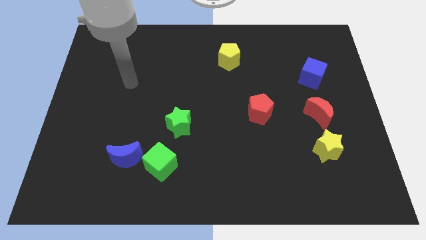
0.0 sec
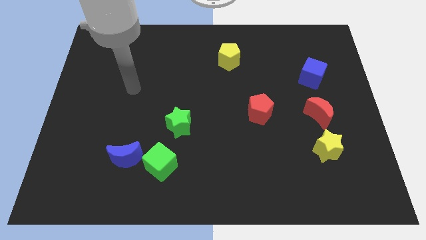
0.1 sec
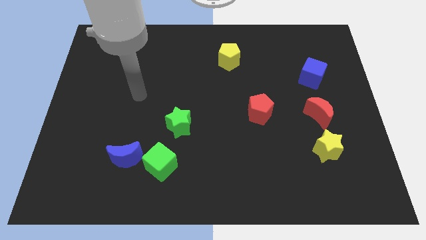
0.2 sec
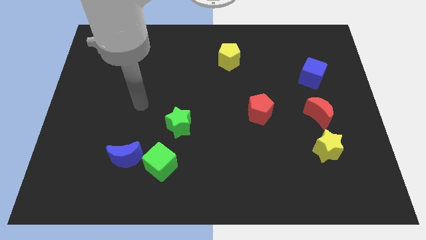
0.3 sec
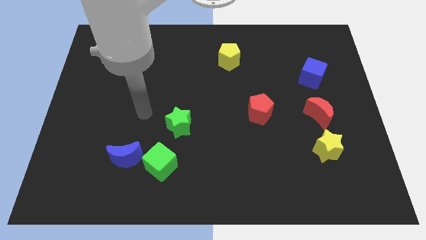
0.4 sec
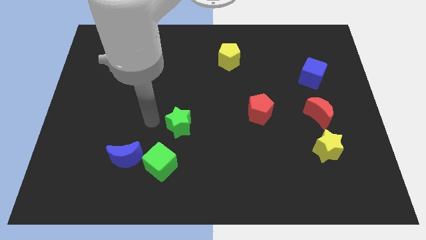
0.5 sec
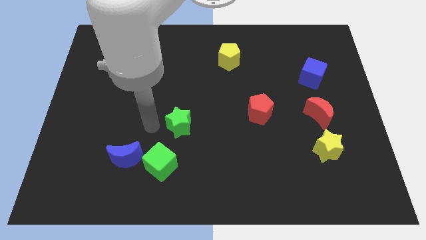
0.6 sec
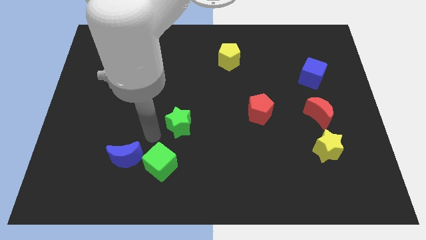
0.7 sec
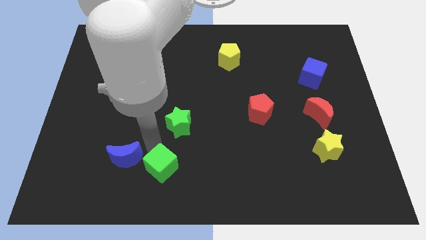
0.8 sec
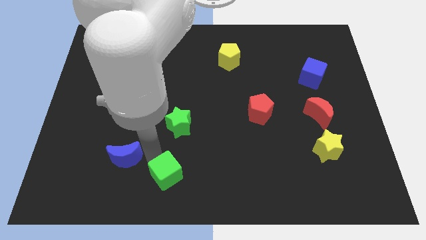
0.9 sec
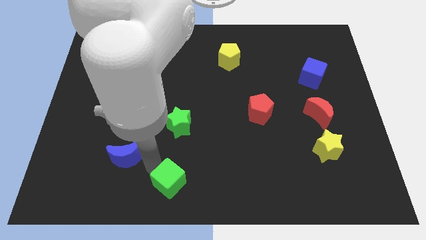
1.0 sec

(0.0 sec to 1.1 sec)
move the blue moon away from the green cube

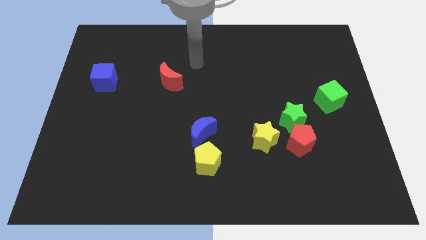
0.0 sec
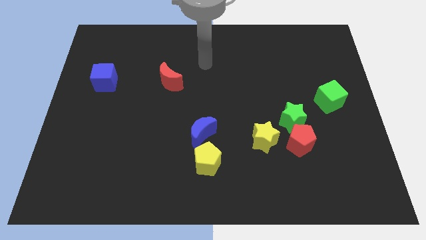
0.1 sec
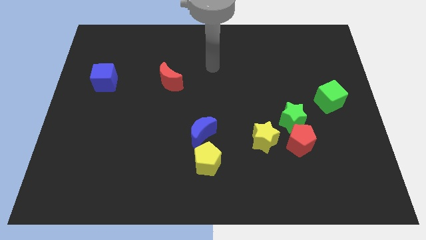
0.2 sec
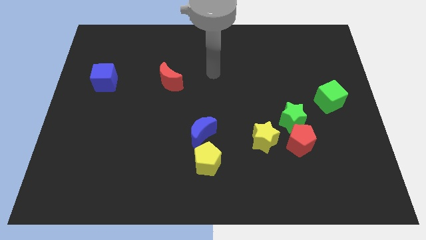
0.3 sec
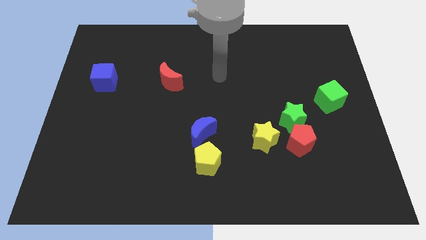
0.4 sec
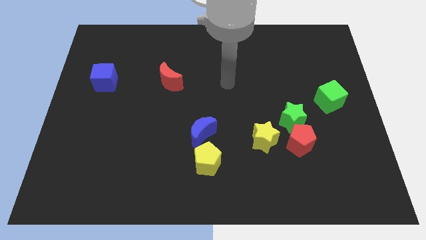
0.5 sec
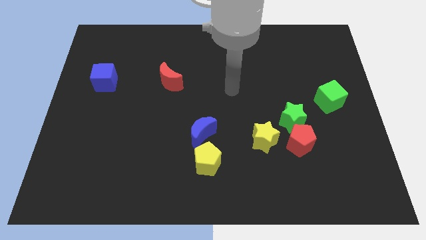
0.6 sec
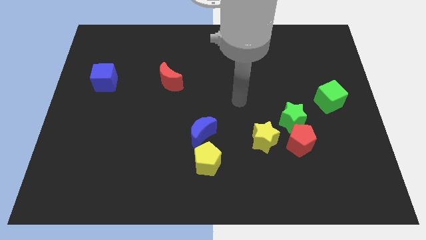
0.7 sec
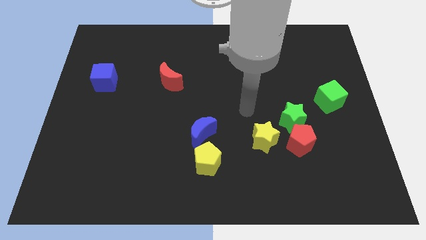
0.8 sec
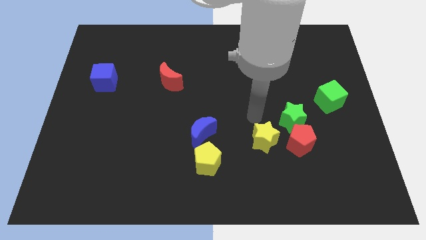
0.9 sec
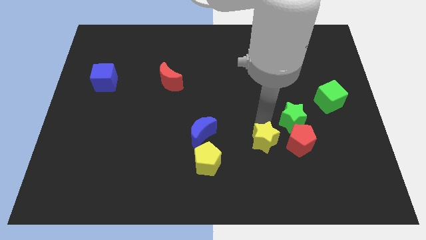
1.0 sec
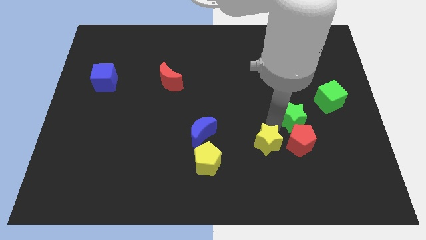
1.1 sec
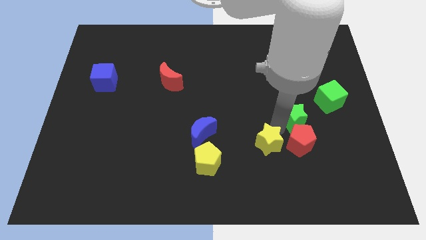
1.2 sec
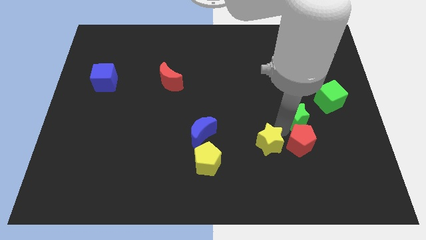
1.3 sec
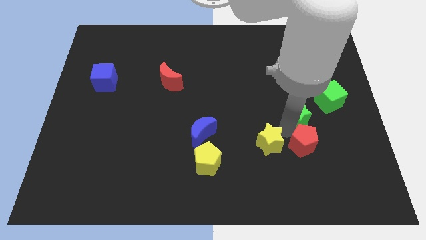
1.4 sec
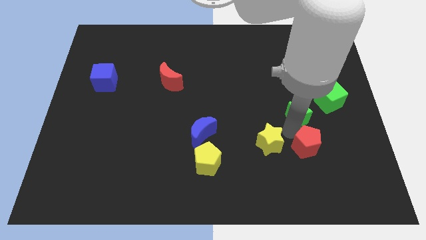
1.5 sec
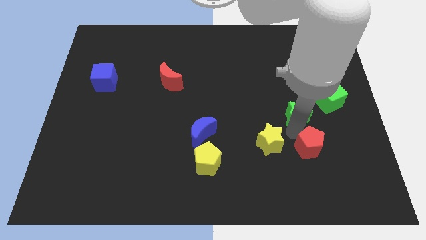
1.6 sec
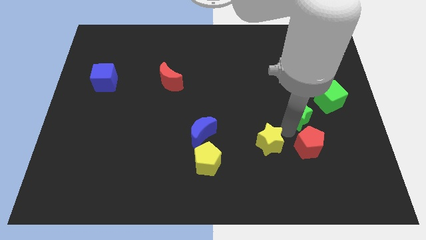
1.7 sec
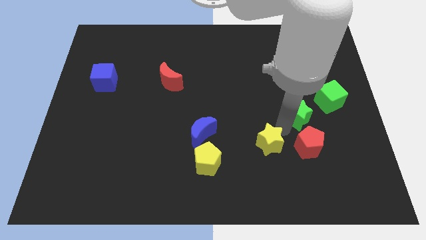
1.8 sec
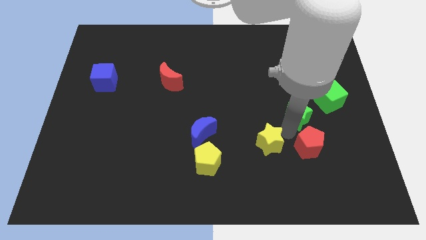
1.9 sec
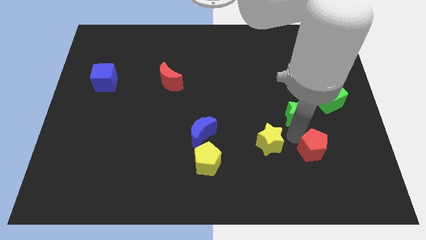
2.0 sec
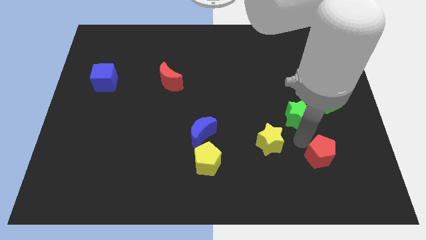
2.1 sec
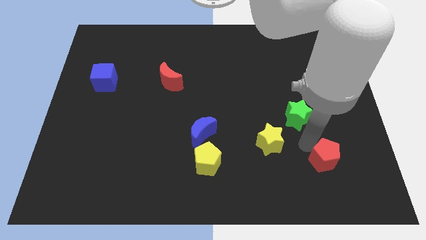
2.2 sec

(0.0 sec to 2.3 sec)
separate the red pentagon from the green star and yellow star

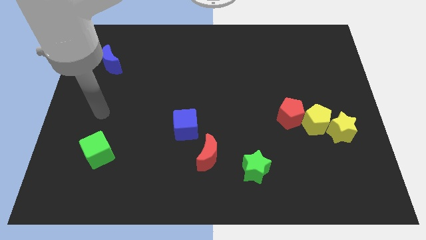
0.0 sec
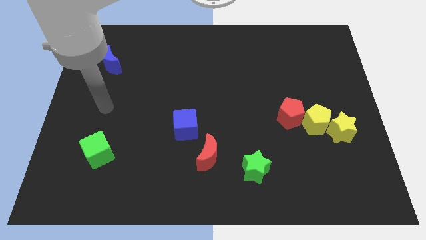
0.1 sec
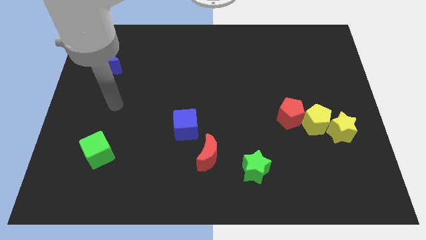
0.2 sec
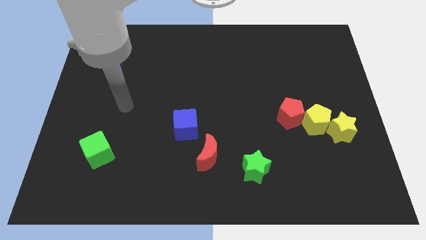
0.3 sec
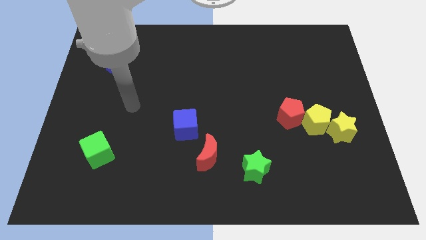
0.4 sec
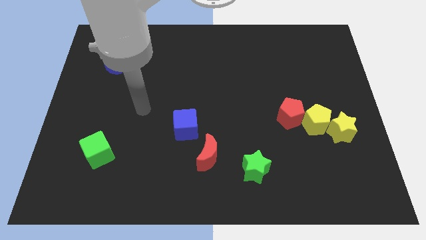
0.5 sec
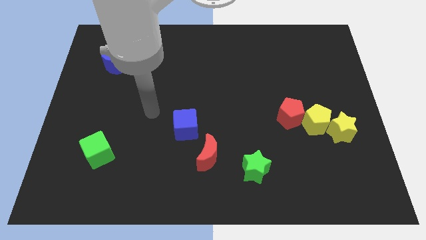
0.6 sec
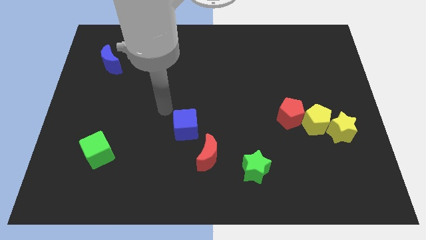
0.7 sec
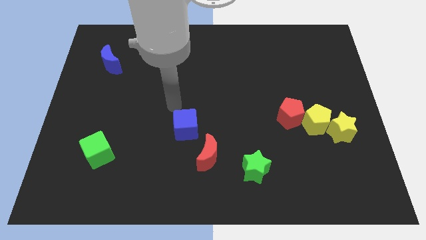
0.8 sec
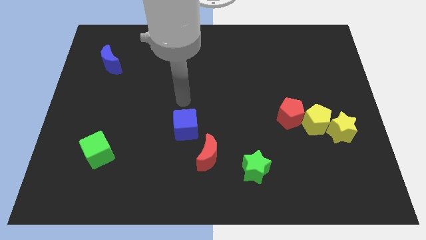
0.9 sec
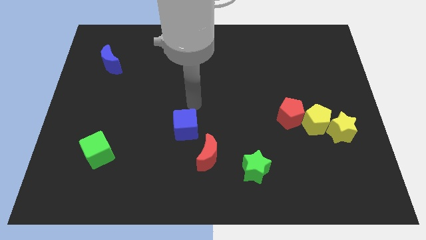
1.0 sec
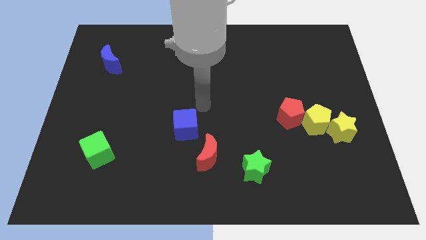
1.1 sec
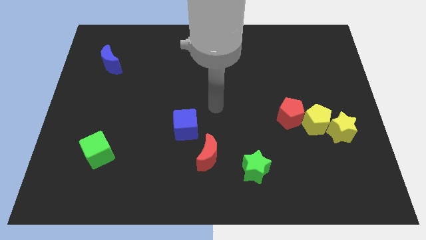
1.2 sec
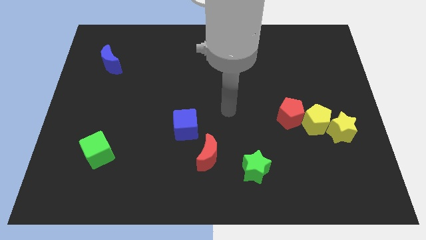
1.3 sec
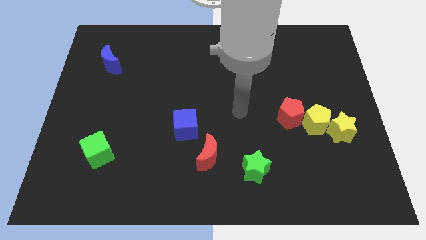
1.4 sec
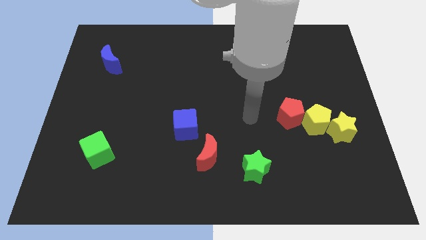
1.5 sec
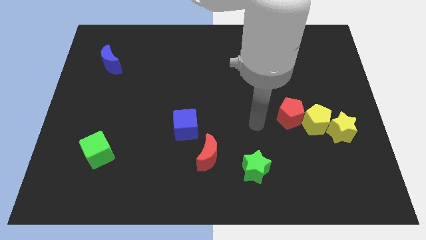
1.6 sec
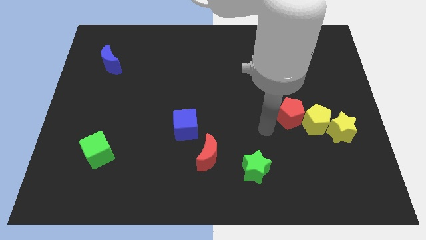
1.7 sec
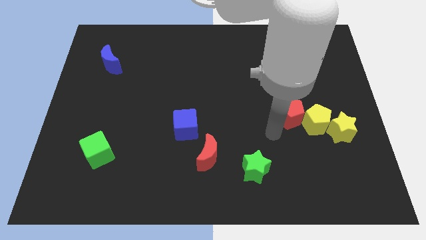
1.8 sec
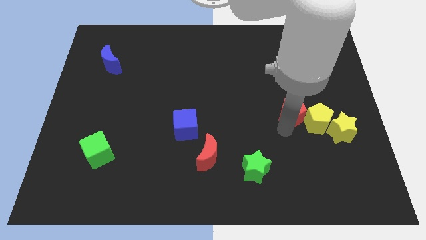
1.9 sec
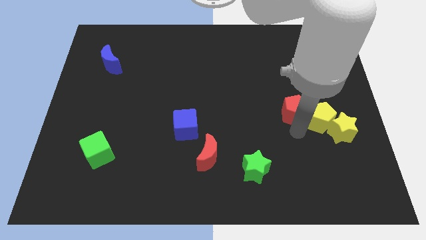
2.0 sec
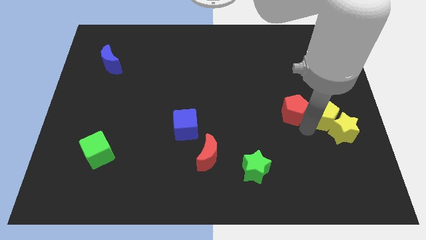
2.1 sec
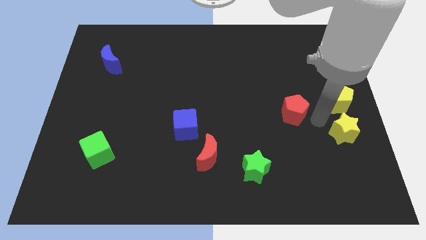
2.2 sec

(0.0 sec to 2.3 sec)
pull the red pentagon apart from the yellow pentagon

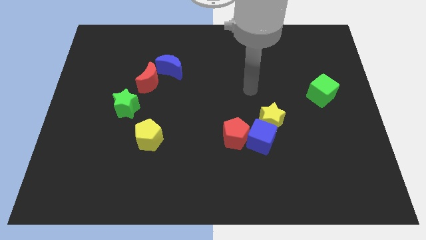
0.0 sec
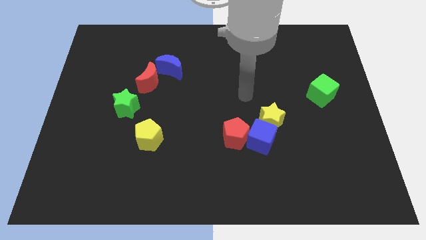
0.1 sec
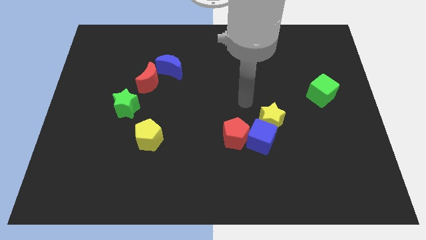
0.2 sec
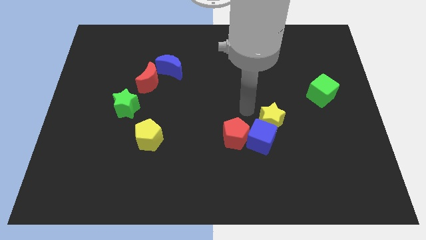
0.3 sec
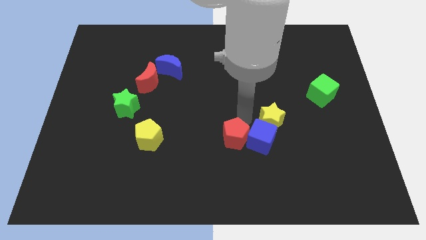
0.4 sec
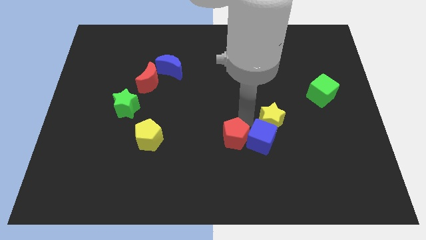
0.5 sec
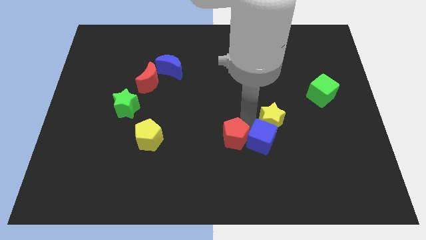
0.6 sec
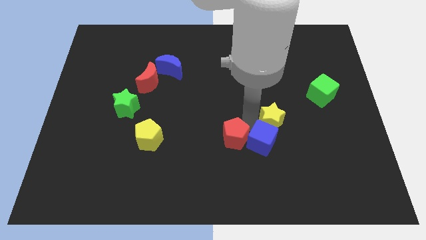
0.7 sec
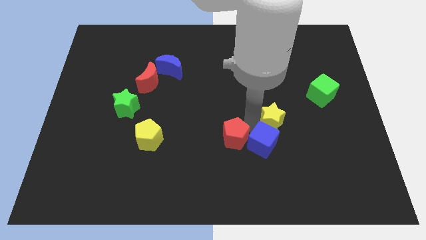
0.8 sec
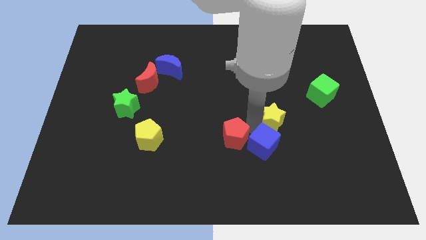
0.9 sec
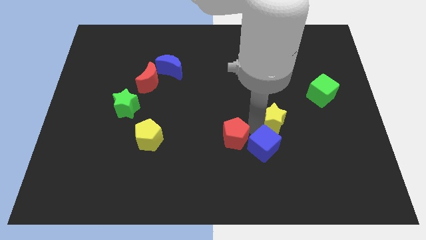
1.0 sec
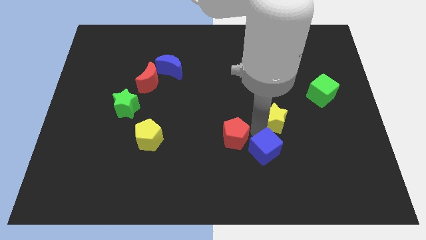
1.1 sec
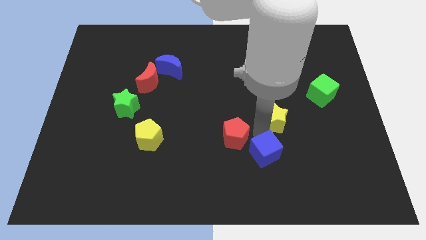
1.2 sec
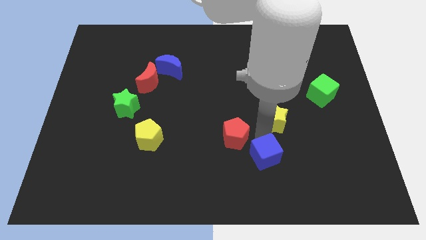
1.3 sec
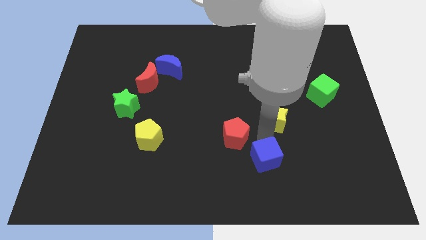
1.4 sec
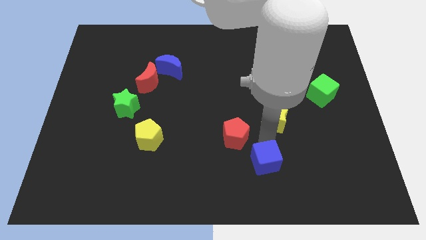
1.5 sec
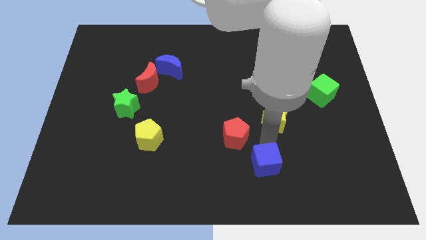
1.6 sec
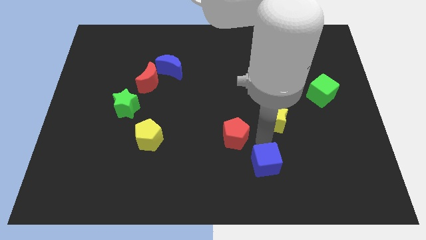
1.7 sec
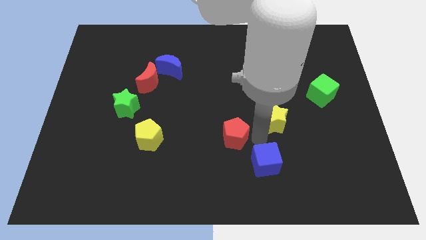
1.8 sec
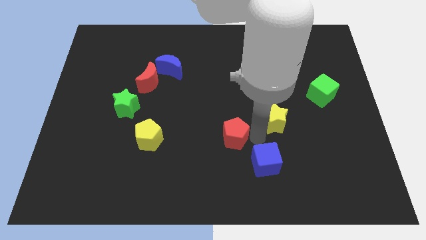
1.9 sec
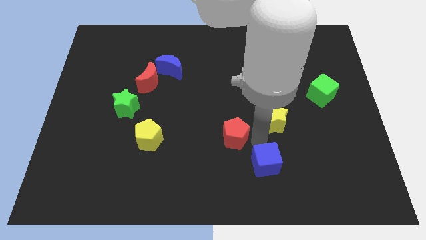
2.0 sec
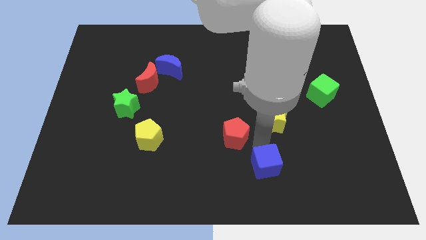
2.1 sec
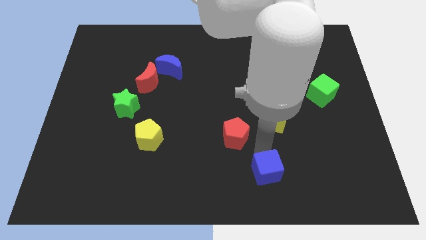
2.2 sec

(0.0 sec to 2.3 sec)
move the blue cube away from the yellow star and red pentagon

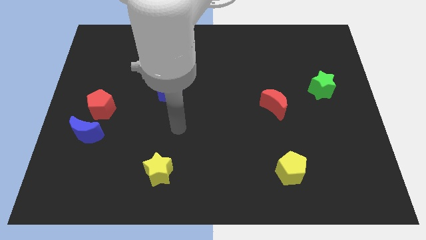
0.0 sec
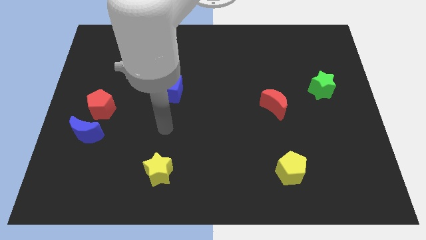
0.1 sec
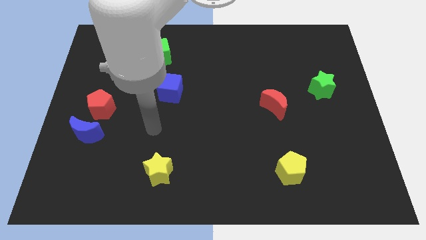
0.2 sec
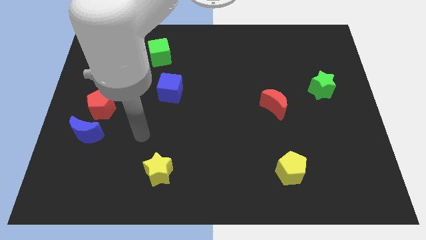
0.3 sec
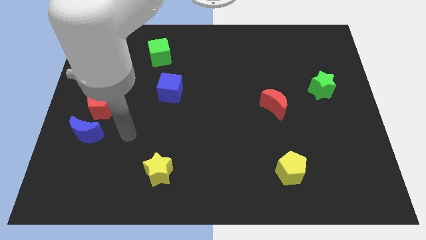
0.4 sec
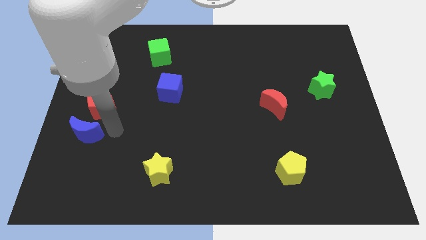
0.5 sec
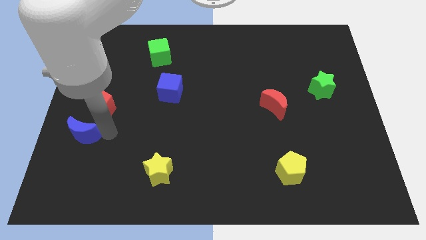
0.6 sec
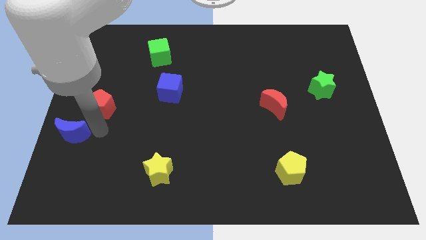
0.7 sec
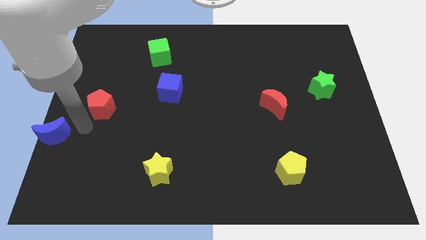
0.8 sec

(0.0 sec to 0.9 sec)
move the red pentagon away from the blue moon

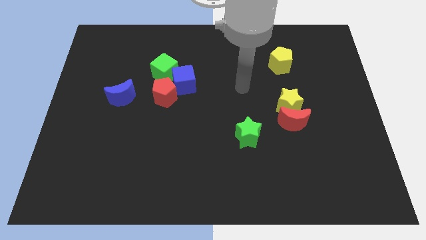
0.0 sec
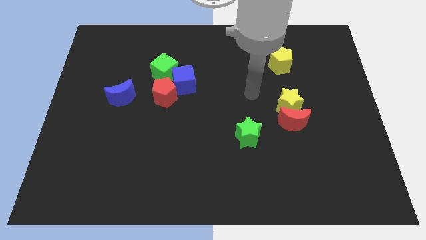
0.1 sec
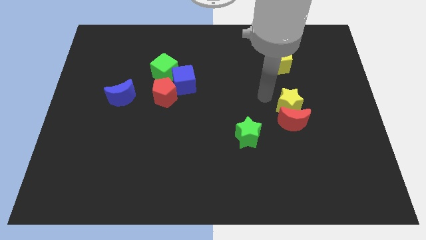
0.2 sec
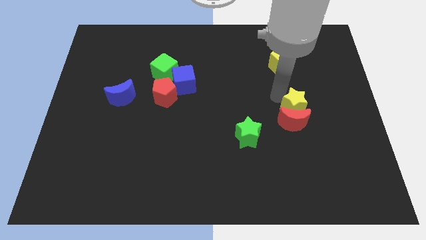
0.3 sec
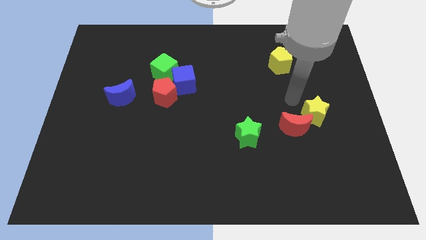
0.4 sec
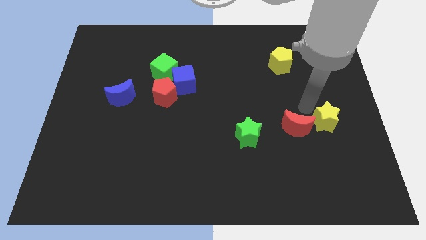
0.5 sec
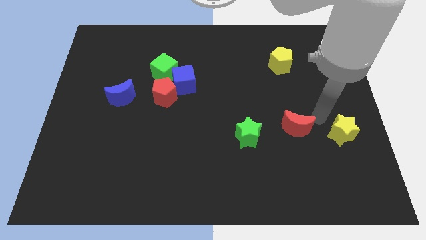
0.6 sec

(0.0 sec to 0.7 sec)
move the red moon away from the yellow star
